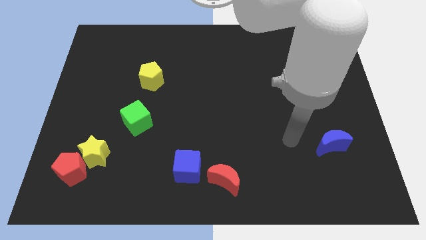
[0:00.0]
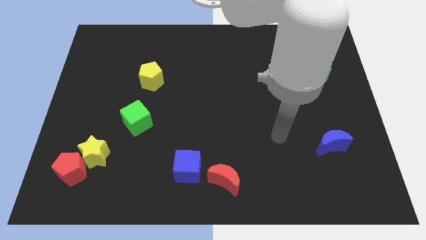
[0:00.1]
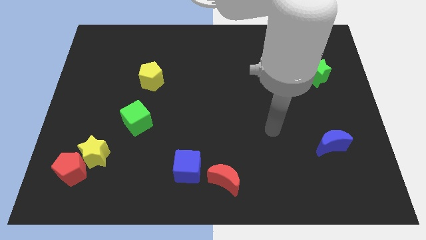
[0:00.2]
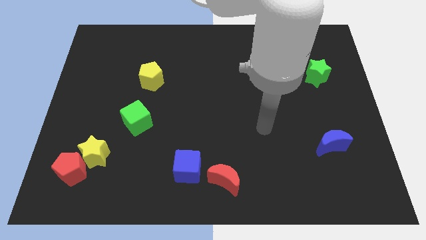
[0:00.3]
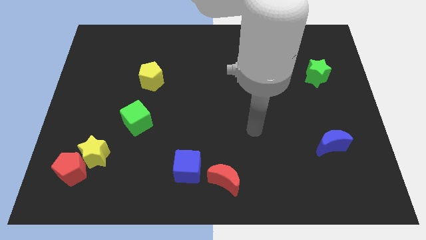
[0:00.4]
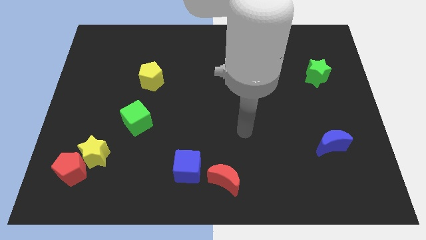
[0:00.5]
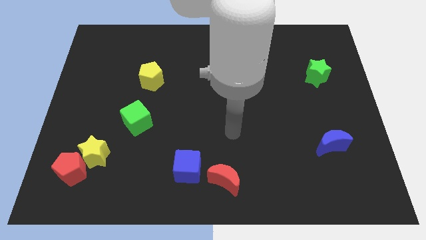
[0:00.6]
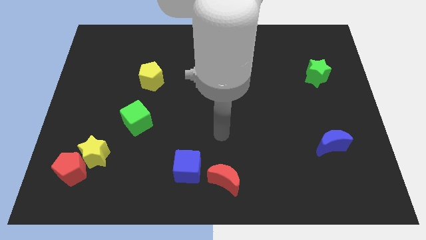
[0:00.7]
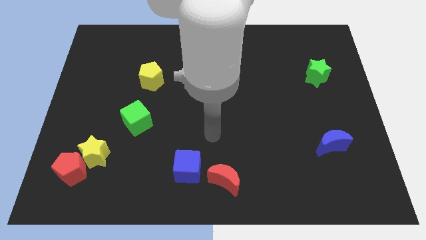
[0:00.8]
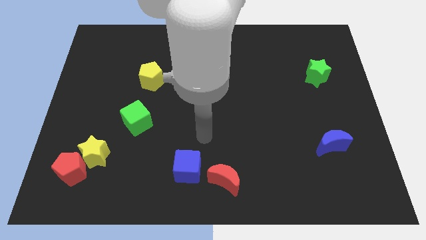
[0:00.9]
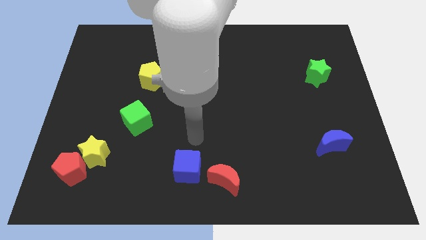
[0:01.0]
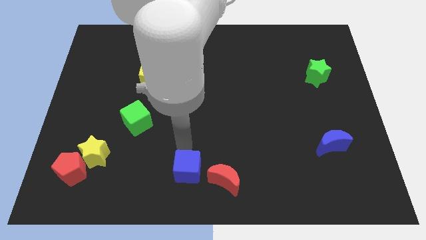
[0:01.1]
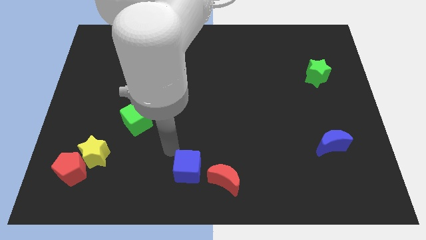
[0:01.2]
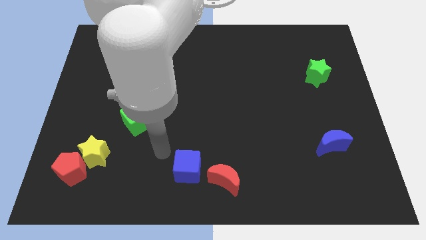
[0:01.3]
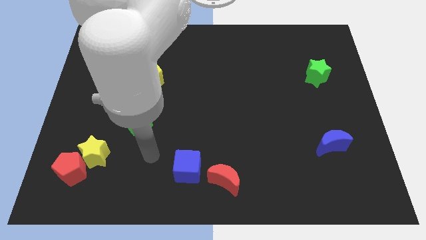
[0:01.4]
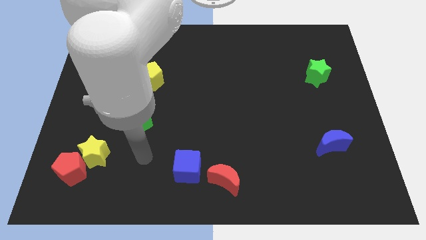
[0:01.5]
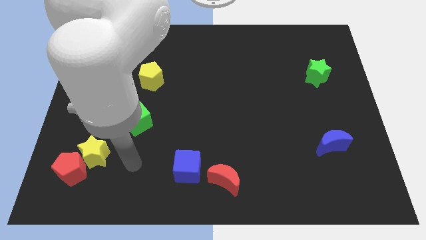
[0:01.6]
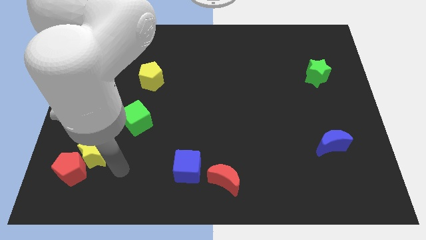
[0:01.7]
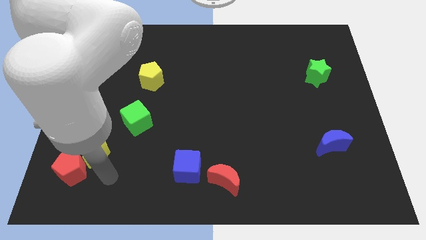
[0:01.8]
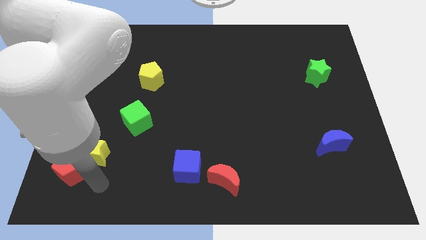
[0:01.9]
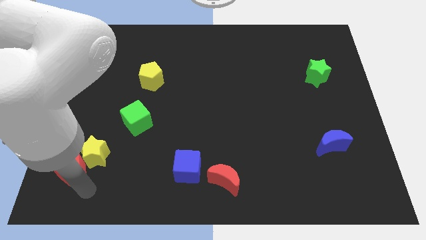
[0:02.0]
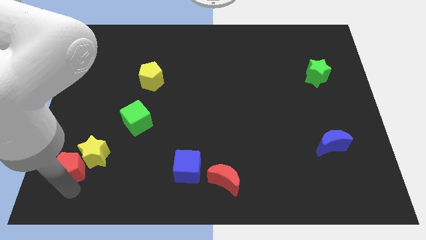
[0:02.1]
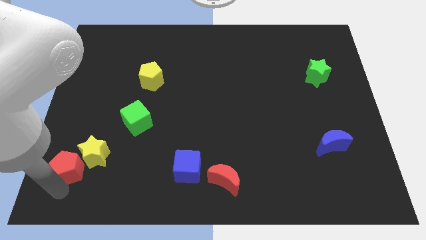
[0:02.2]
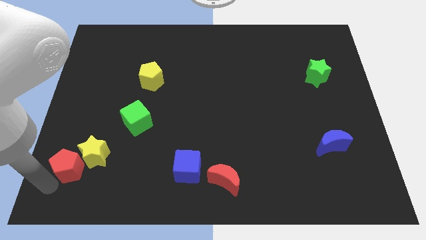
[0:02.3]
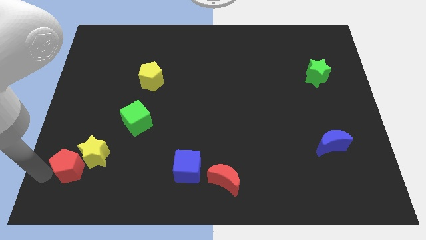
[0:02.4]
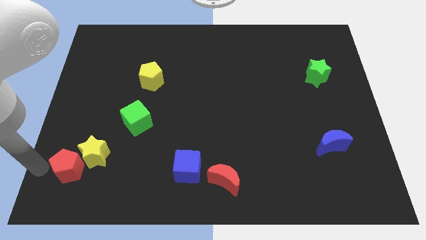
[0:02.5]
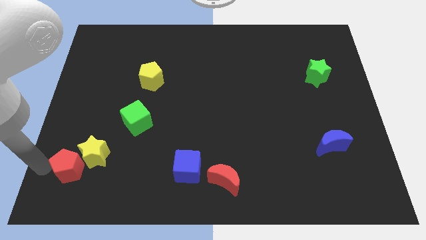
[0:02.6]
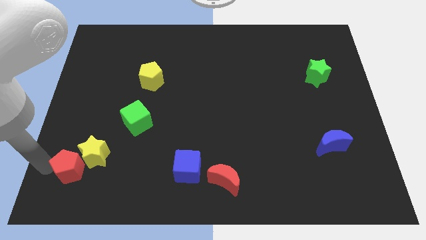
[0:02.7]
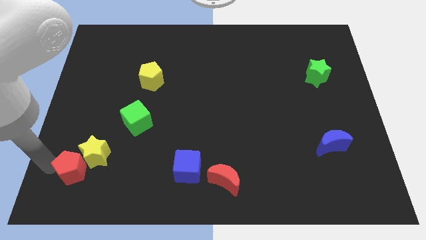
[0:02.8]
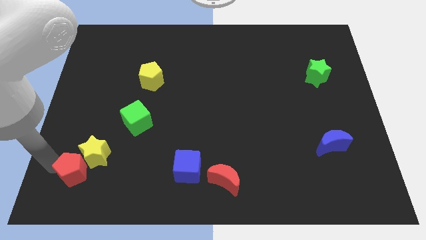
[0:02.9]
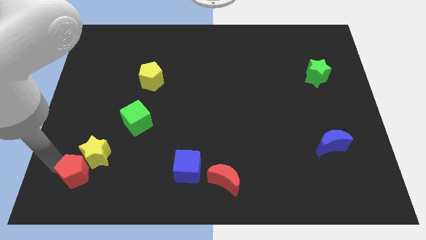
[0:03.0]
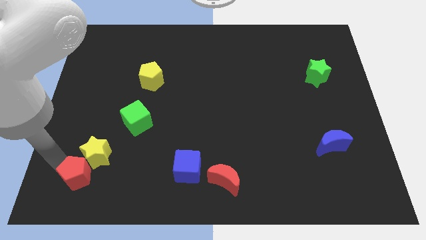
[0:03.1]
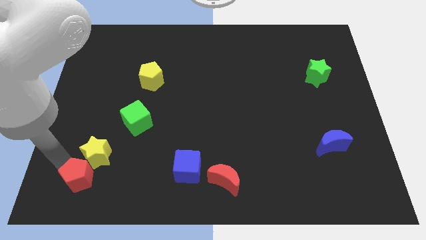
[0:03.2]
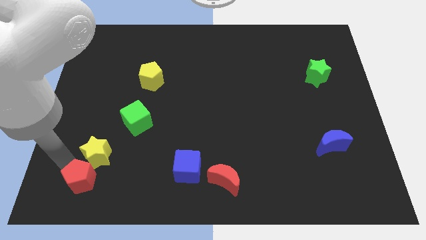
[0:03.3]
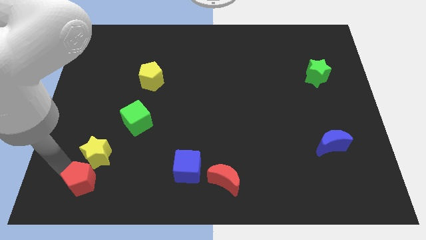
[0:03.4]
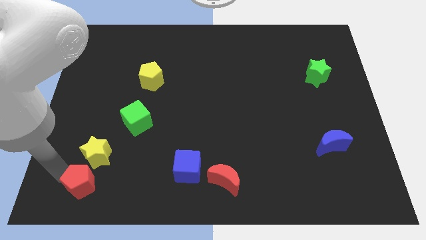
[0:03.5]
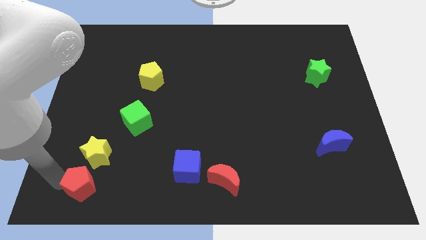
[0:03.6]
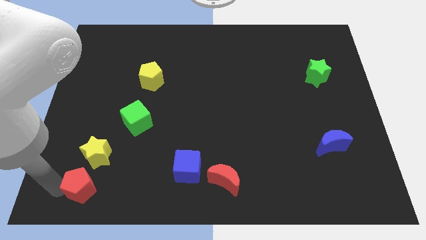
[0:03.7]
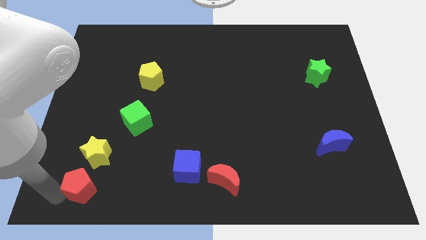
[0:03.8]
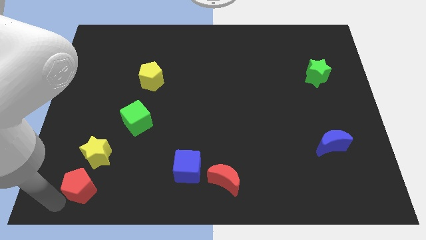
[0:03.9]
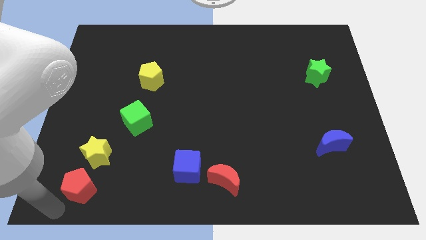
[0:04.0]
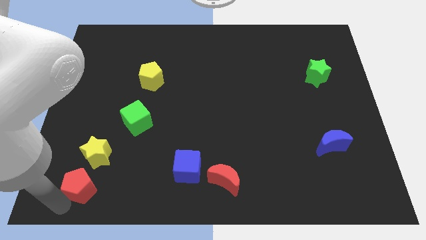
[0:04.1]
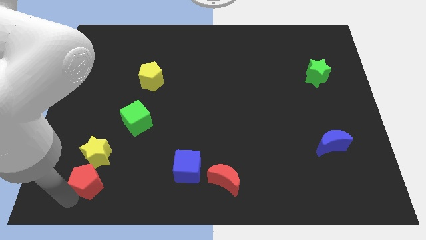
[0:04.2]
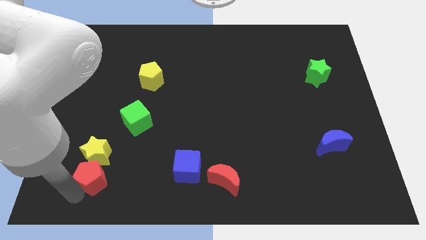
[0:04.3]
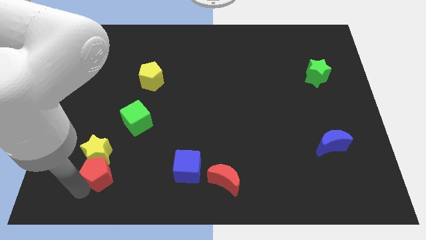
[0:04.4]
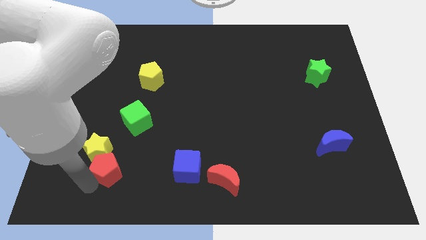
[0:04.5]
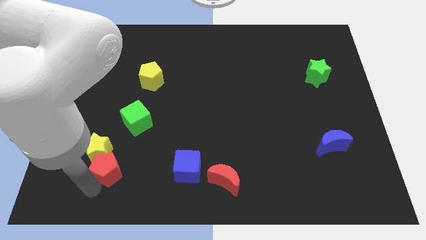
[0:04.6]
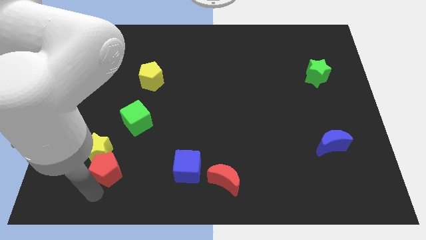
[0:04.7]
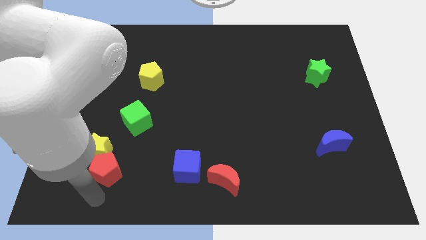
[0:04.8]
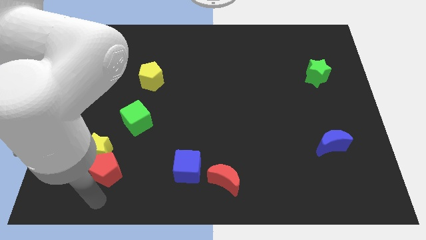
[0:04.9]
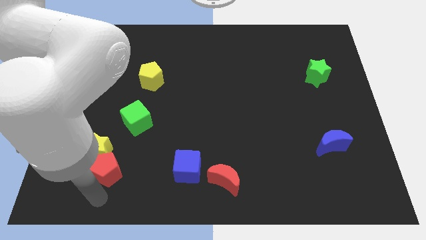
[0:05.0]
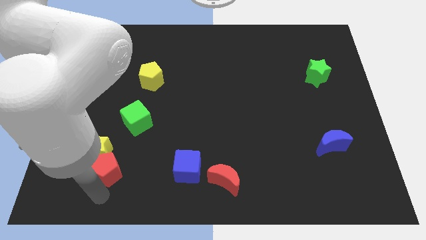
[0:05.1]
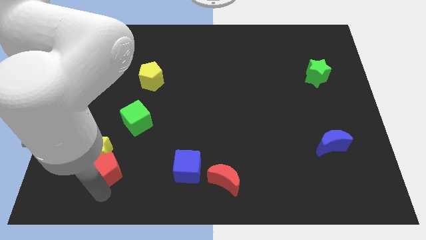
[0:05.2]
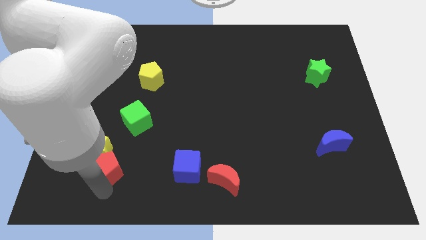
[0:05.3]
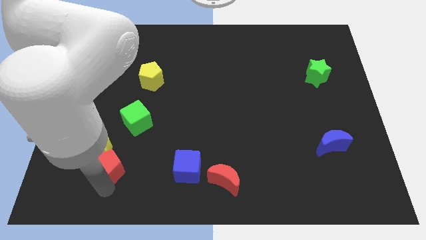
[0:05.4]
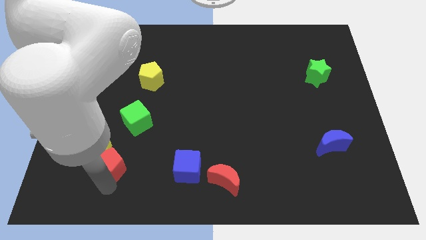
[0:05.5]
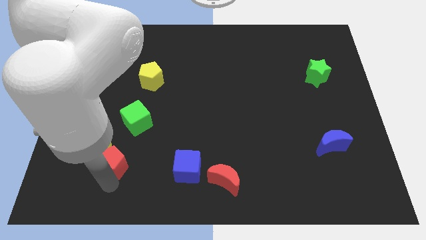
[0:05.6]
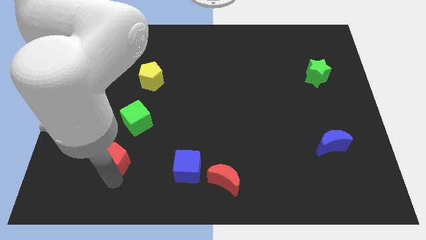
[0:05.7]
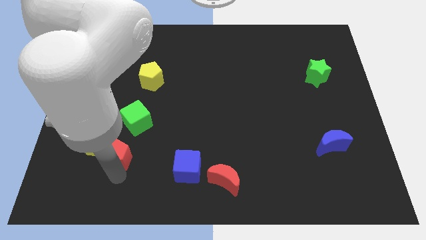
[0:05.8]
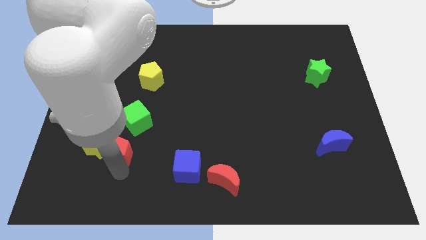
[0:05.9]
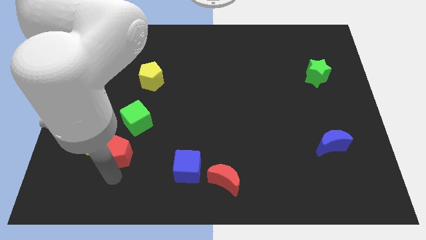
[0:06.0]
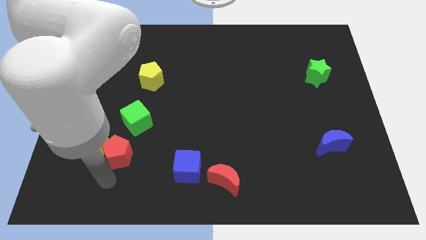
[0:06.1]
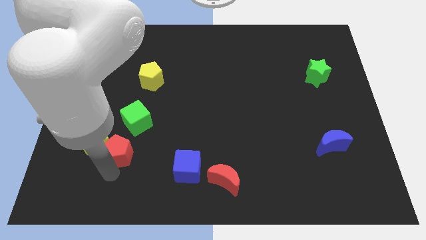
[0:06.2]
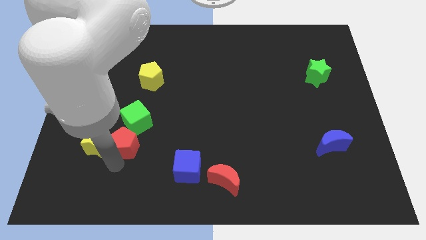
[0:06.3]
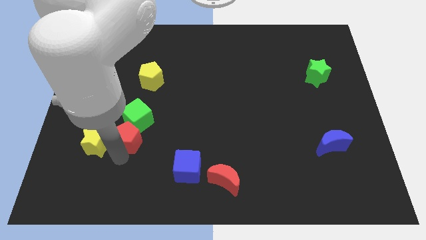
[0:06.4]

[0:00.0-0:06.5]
push the red pentagon to the green cube
